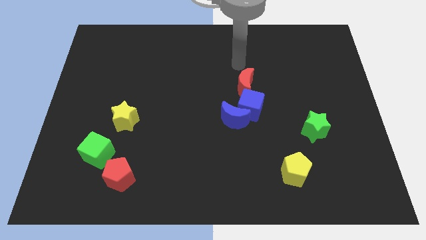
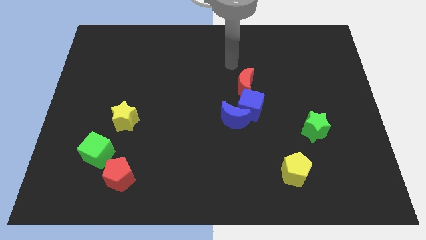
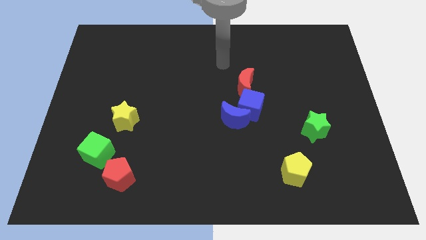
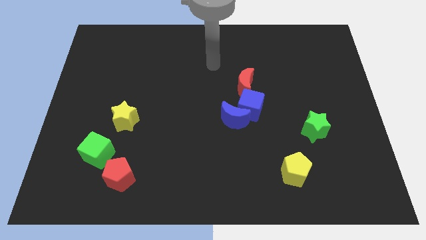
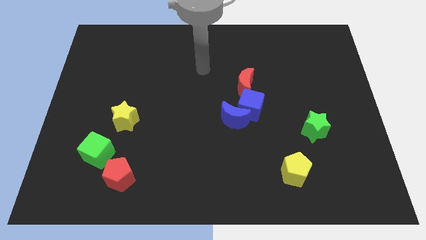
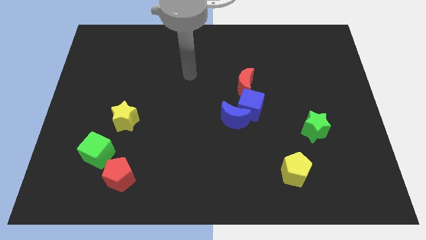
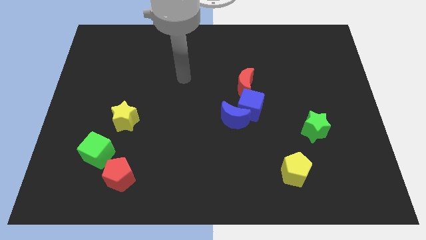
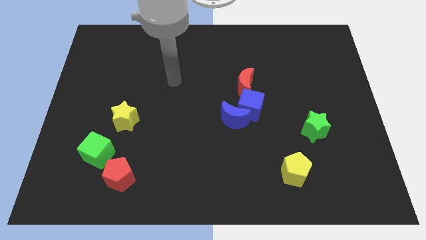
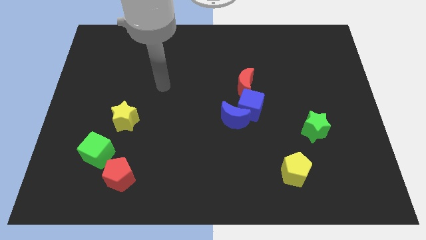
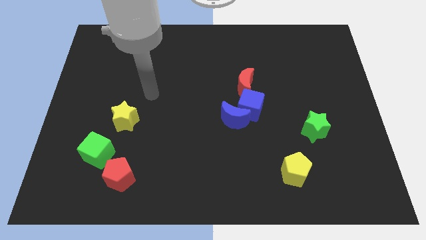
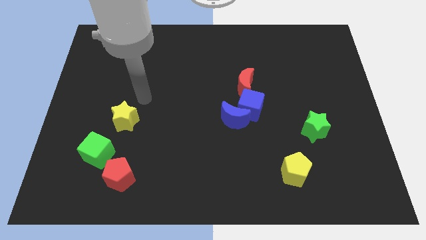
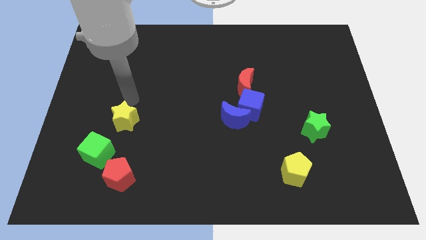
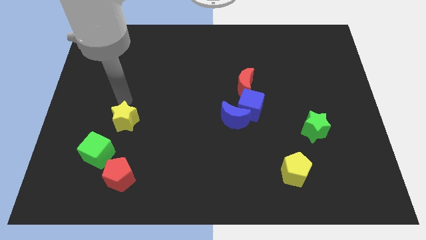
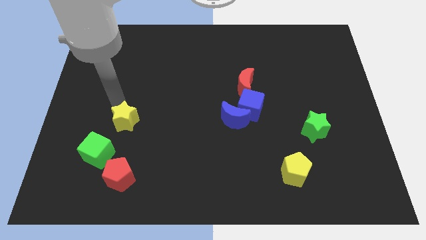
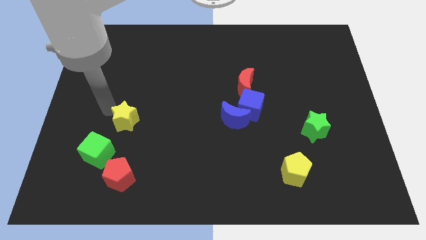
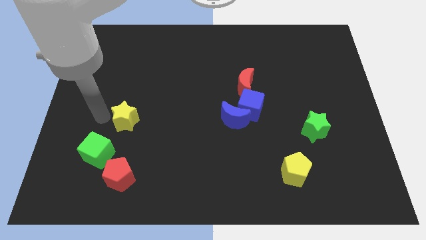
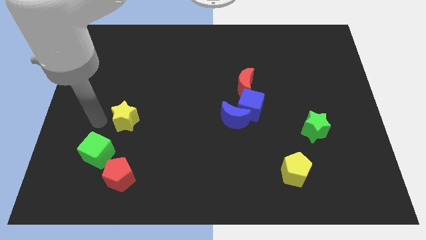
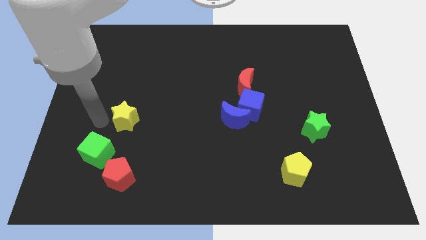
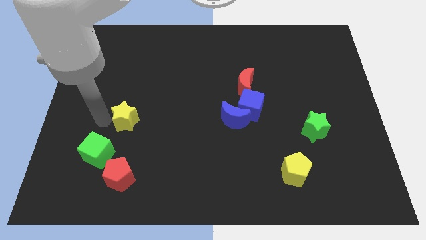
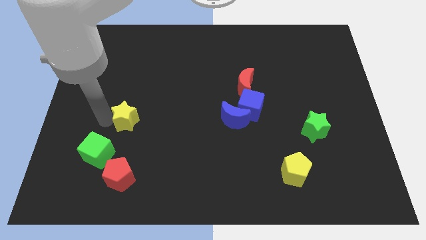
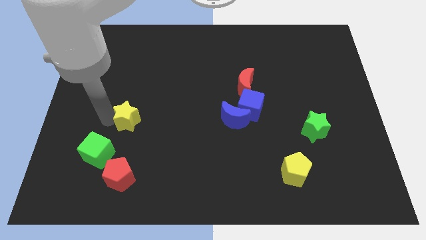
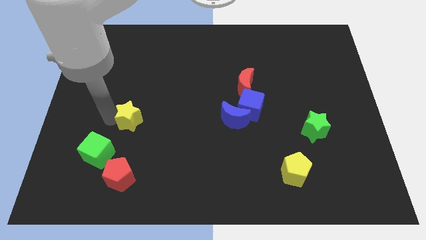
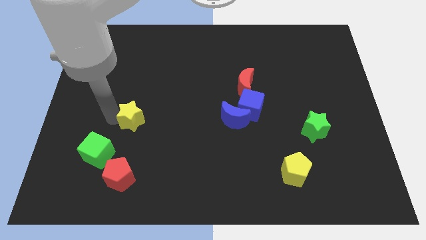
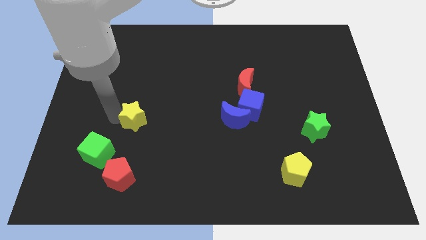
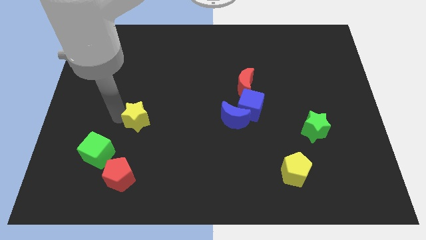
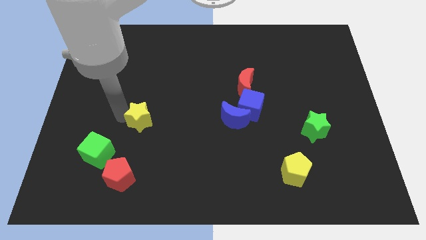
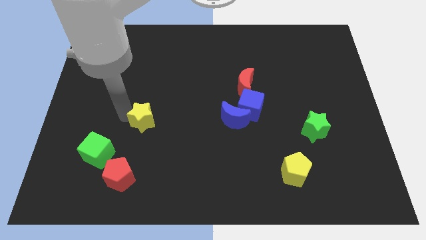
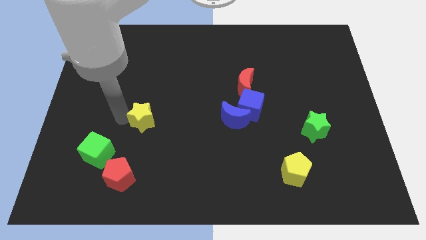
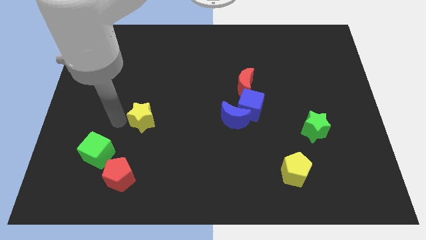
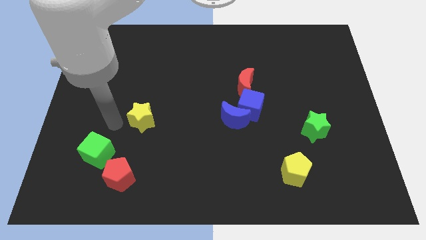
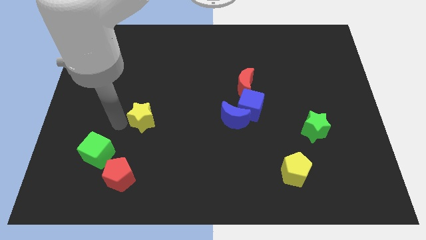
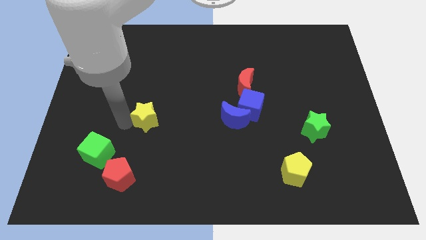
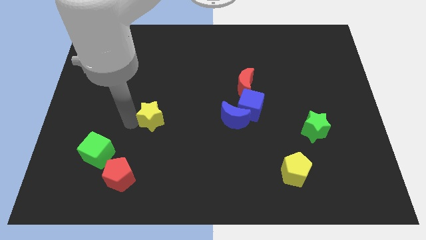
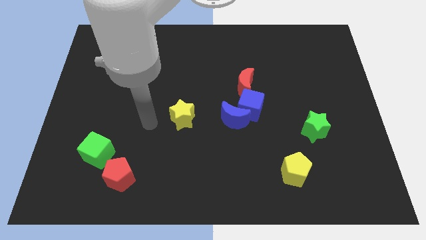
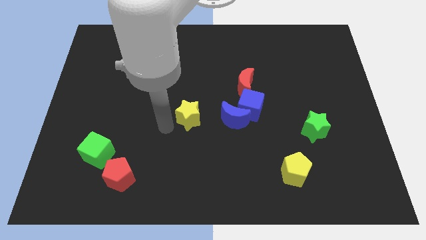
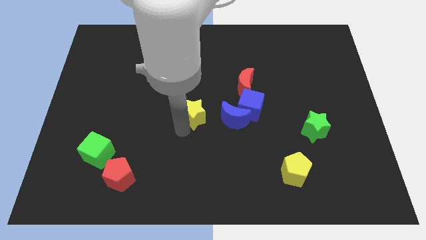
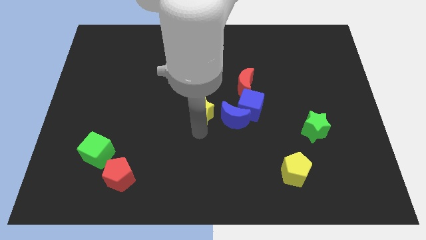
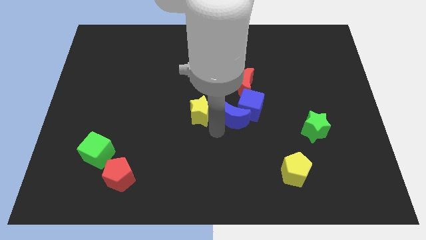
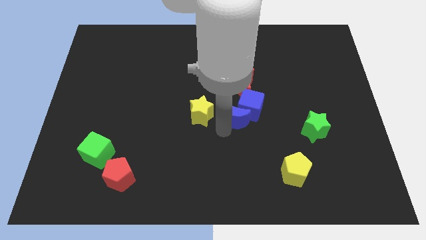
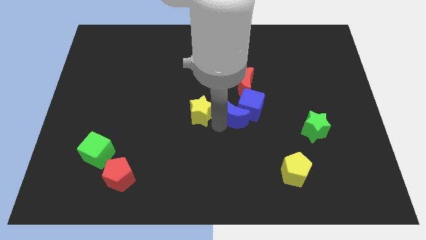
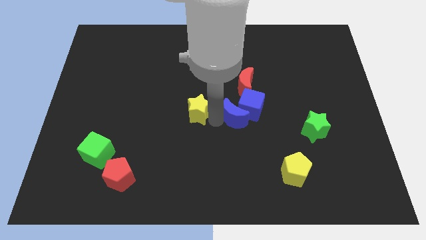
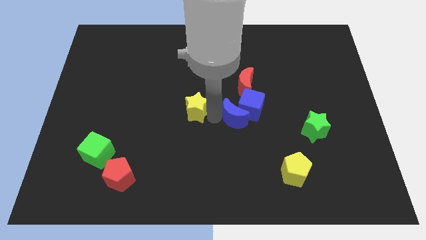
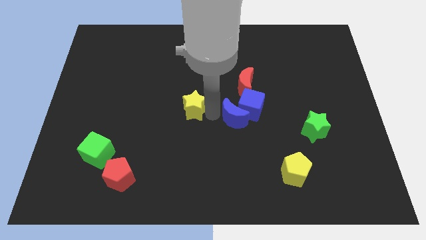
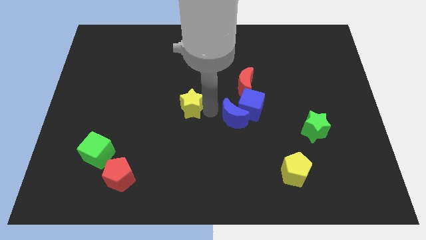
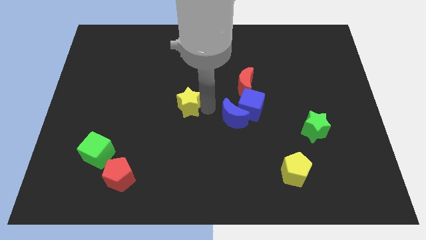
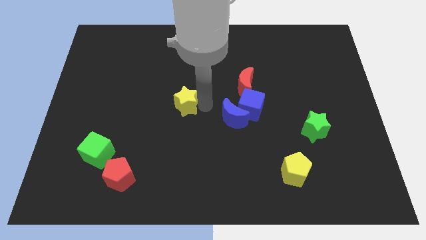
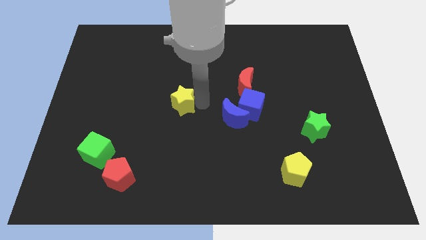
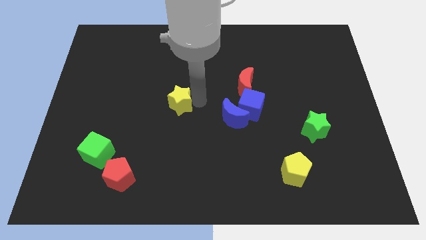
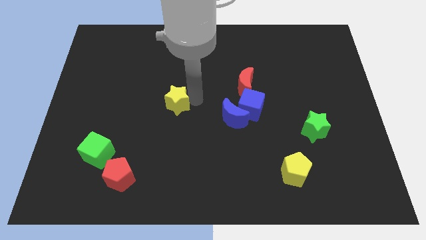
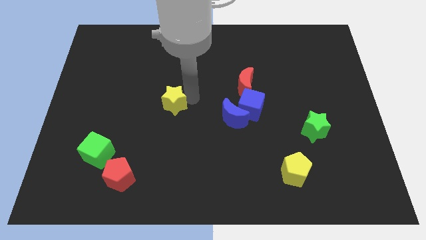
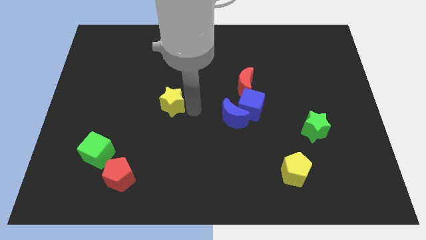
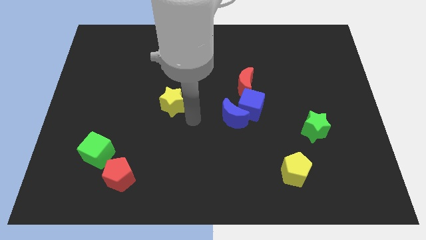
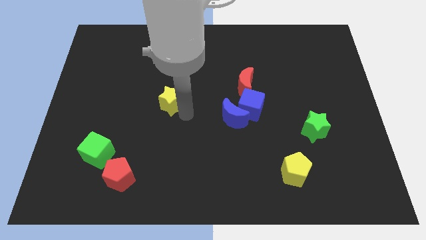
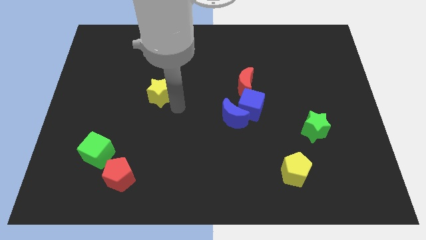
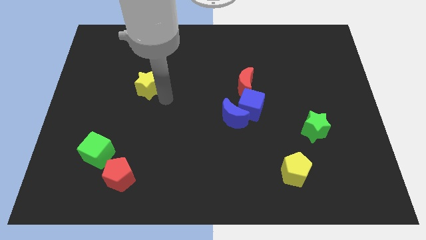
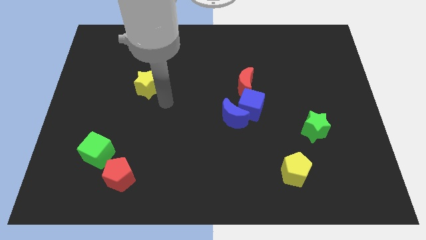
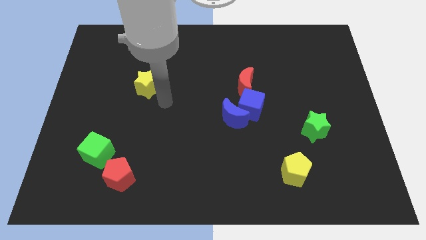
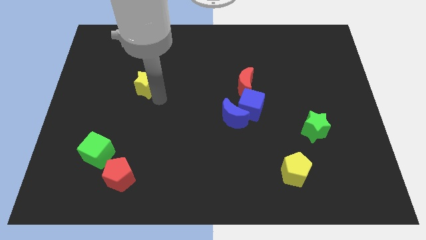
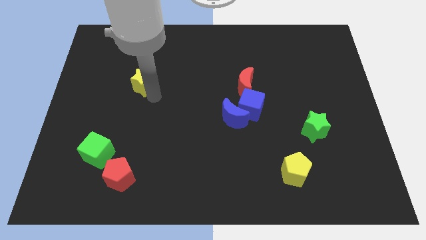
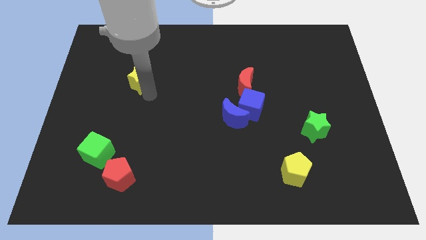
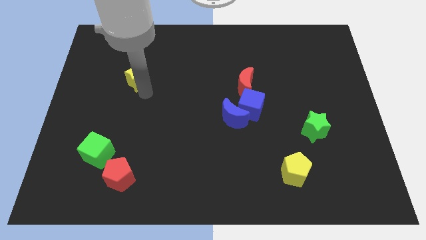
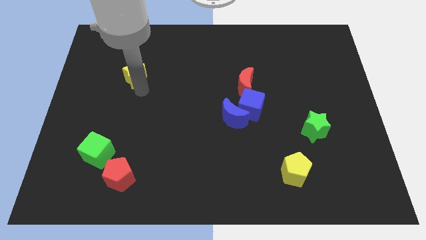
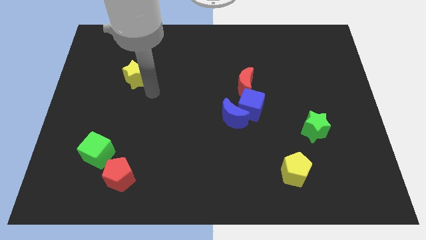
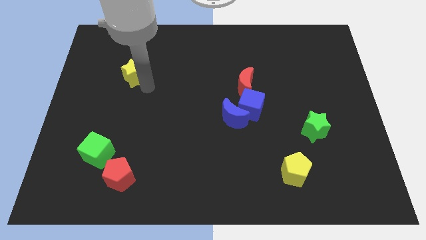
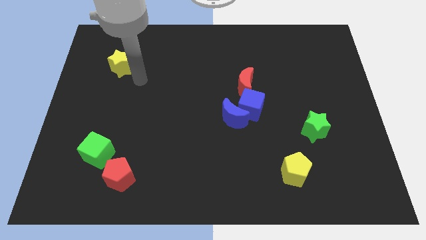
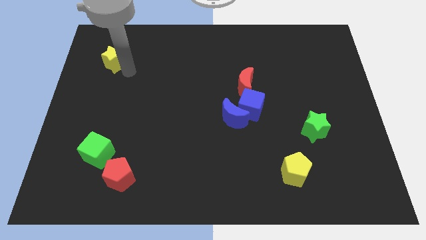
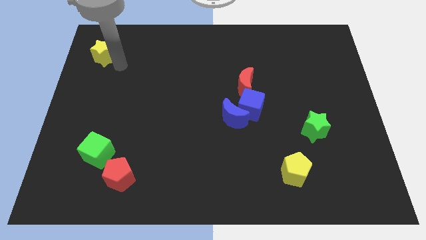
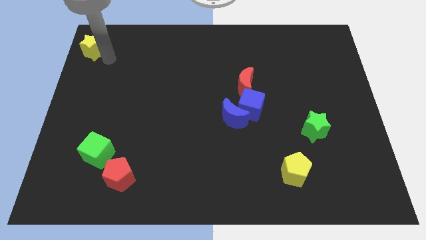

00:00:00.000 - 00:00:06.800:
push the yellow star to the upper left corner
